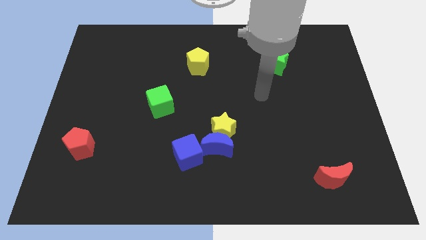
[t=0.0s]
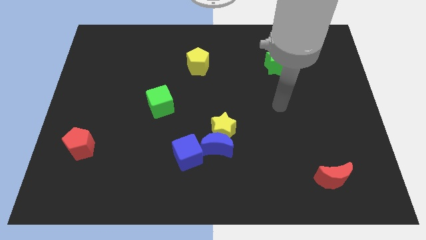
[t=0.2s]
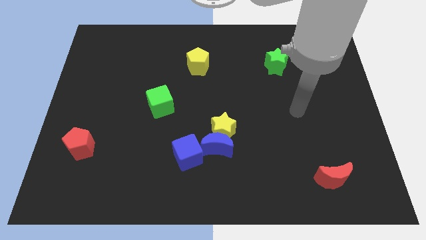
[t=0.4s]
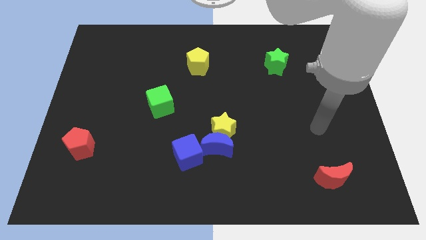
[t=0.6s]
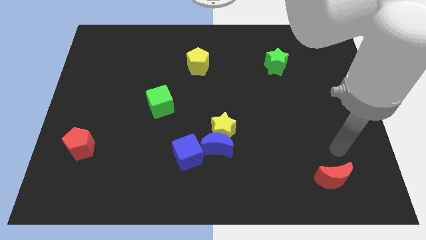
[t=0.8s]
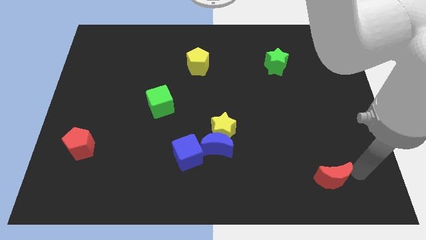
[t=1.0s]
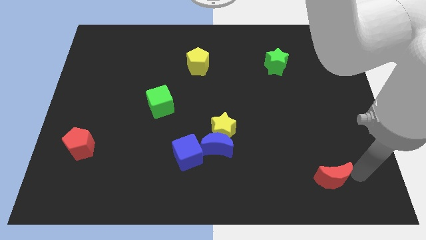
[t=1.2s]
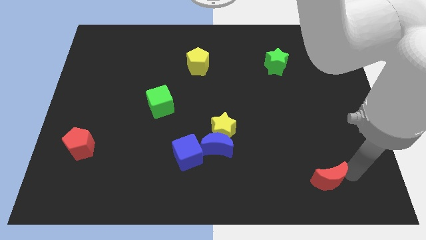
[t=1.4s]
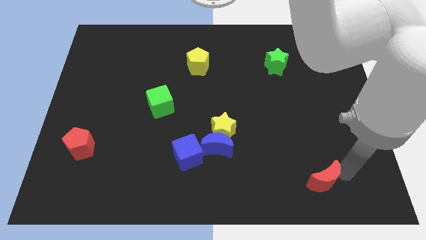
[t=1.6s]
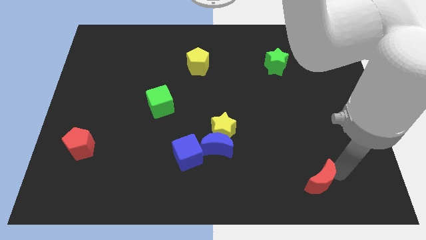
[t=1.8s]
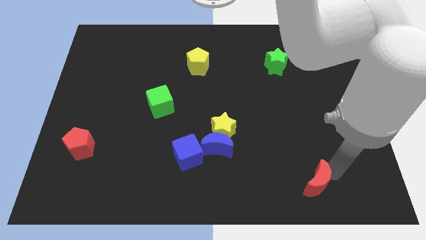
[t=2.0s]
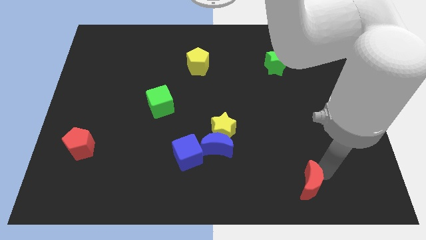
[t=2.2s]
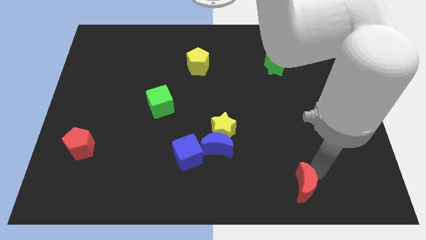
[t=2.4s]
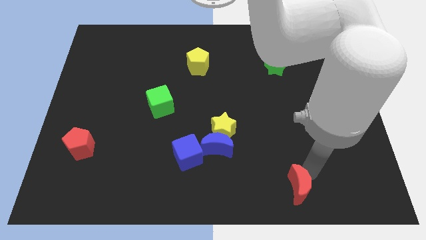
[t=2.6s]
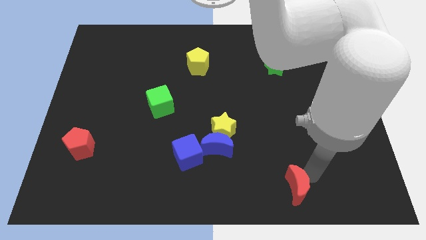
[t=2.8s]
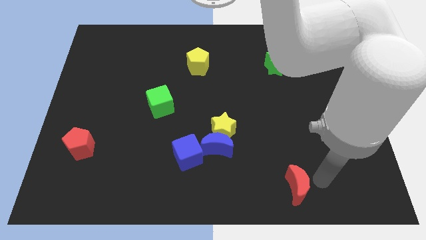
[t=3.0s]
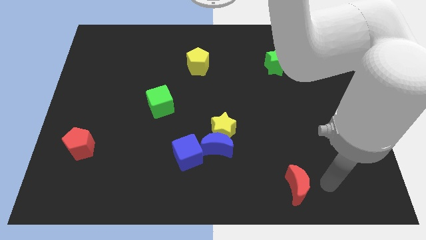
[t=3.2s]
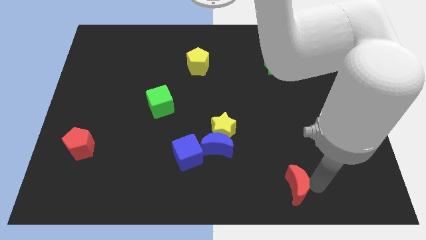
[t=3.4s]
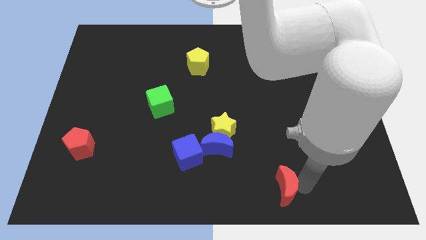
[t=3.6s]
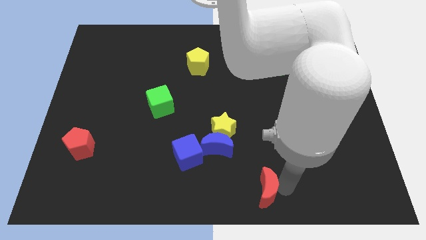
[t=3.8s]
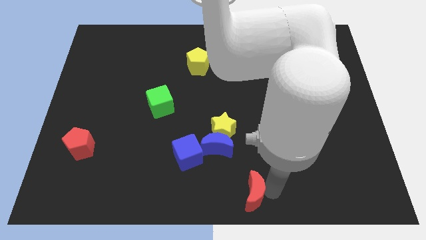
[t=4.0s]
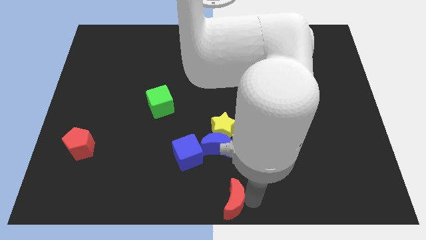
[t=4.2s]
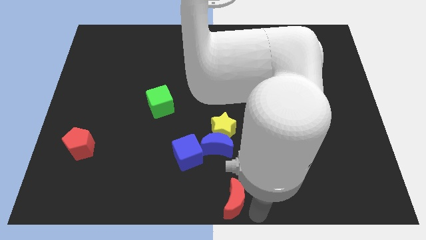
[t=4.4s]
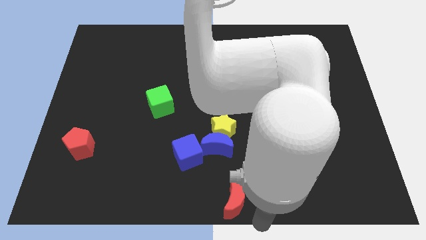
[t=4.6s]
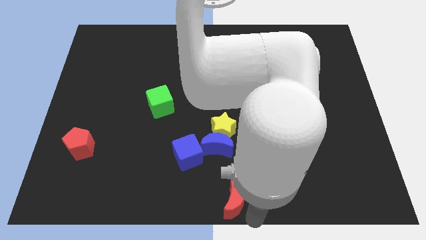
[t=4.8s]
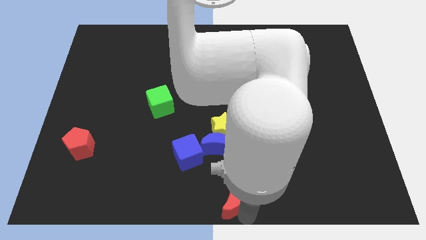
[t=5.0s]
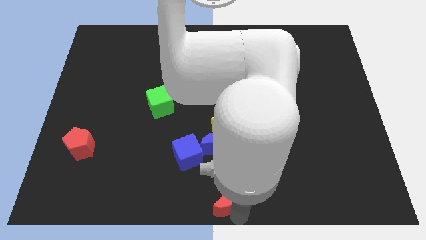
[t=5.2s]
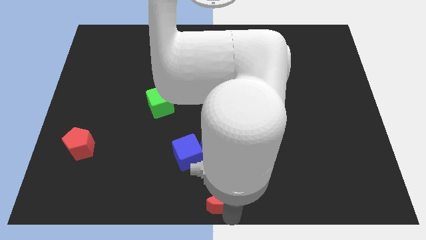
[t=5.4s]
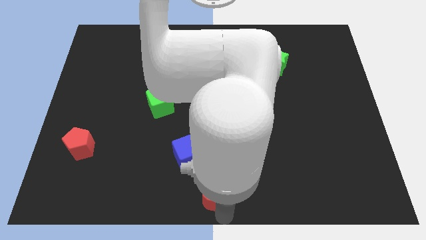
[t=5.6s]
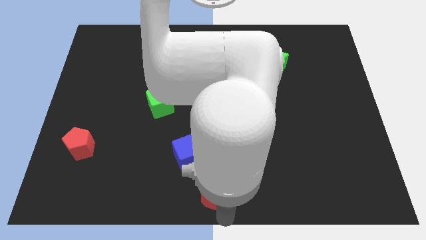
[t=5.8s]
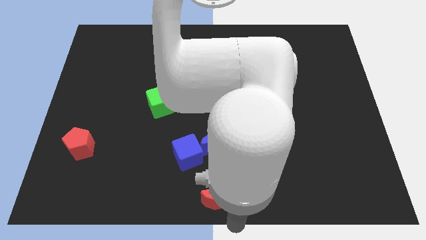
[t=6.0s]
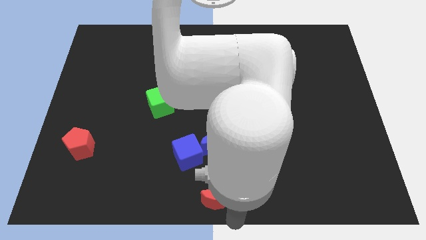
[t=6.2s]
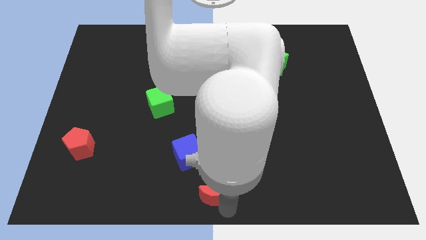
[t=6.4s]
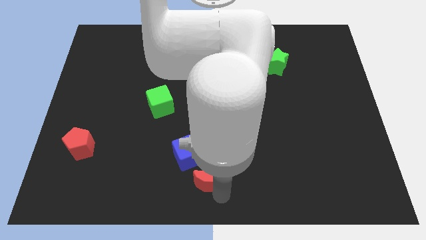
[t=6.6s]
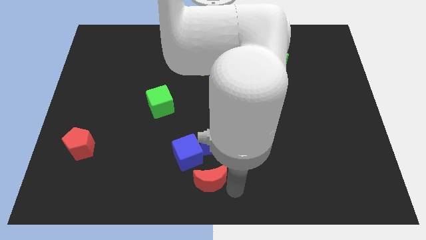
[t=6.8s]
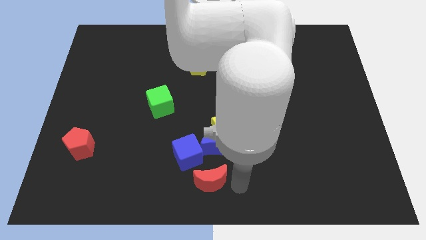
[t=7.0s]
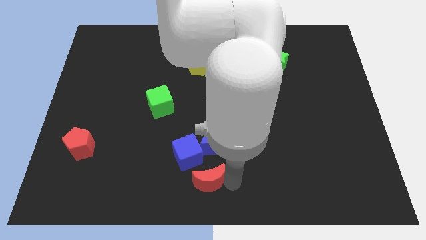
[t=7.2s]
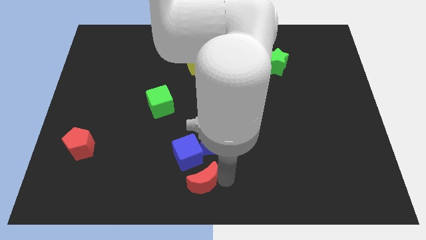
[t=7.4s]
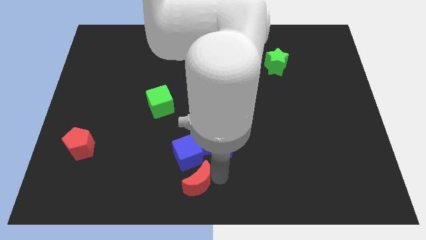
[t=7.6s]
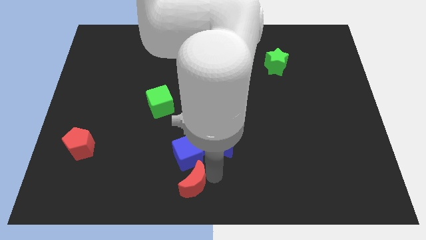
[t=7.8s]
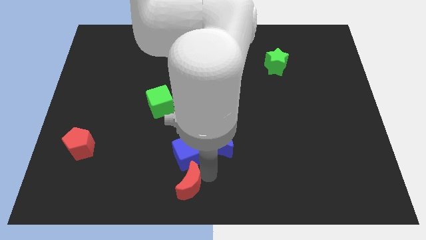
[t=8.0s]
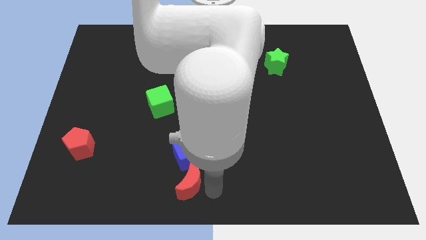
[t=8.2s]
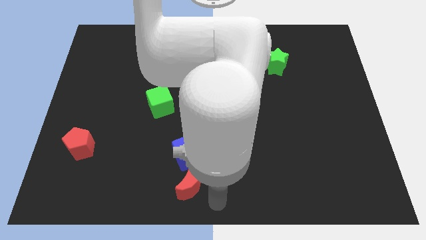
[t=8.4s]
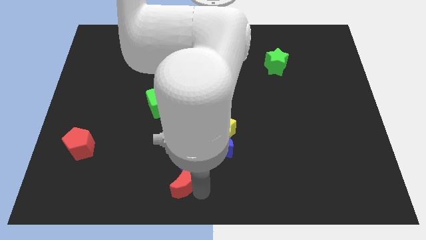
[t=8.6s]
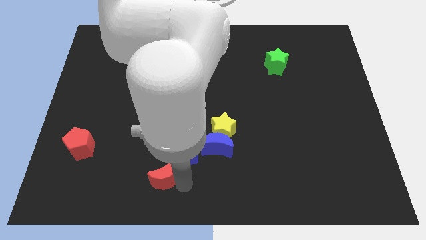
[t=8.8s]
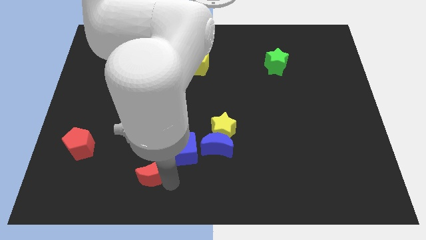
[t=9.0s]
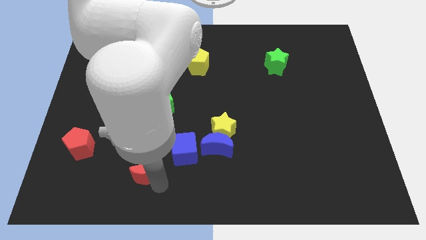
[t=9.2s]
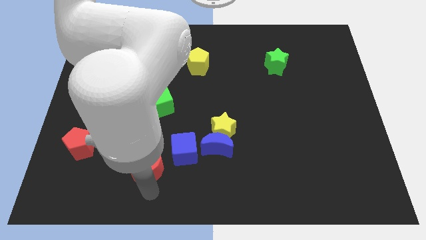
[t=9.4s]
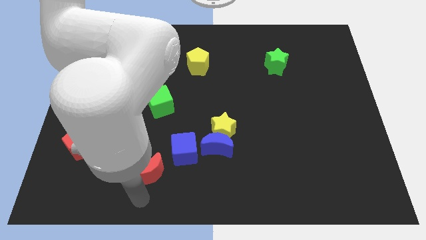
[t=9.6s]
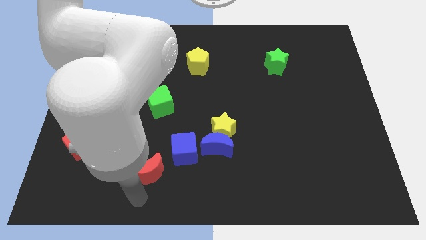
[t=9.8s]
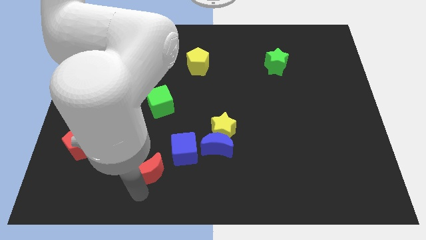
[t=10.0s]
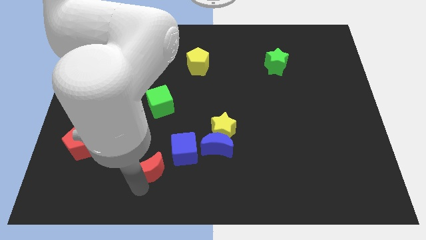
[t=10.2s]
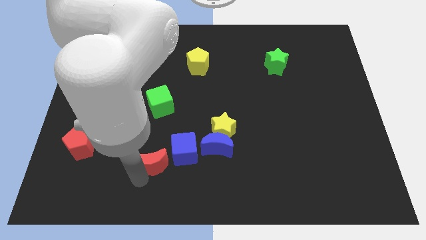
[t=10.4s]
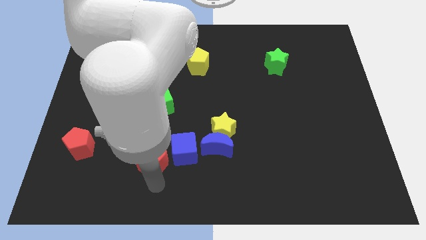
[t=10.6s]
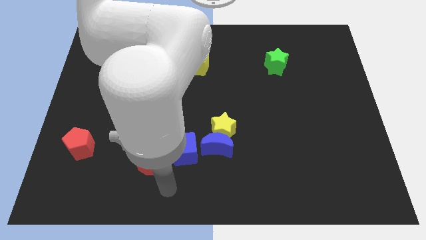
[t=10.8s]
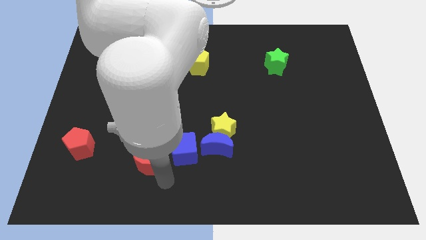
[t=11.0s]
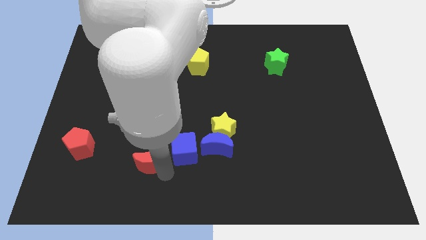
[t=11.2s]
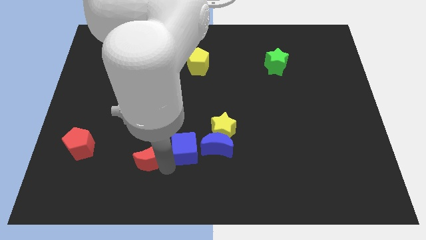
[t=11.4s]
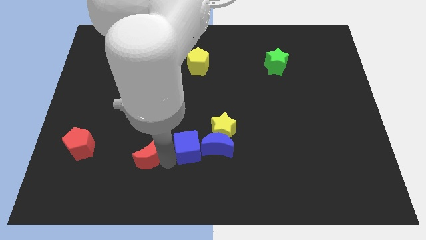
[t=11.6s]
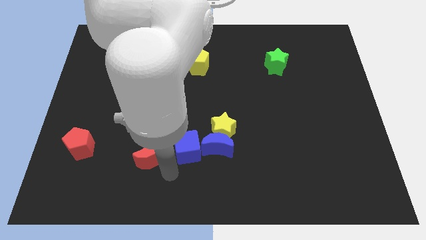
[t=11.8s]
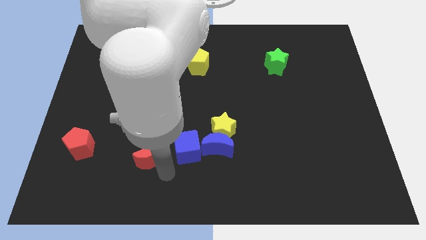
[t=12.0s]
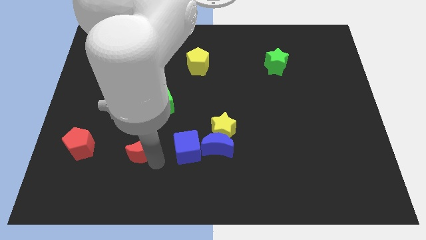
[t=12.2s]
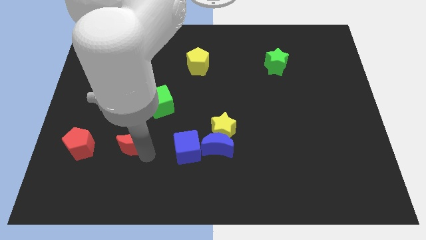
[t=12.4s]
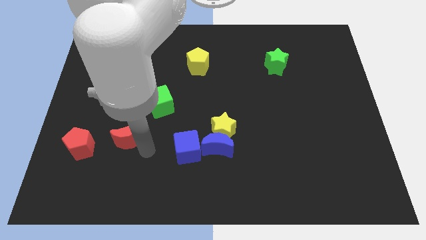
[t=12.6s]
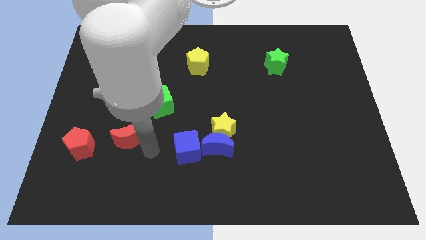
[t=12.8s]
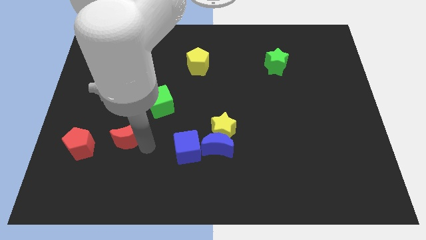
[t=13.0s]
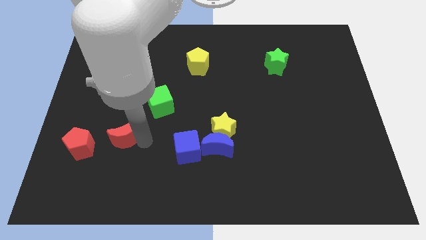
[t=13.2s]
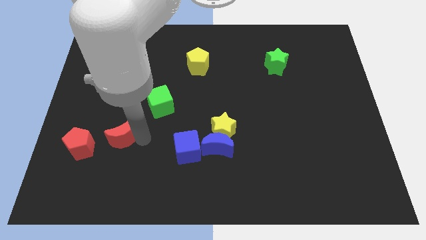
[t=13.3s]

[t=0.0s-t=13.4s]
put the red moon to the top right side of the red pentagon
